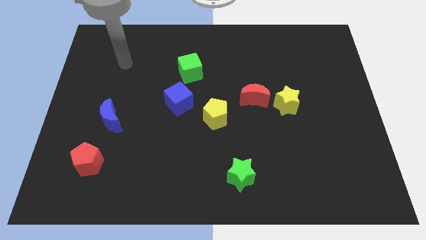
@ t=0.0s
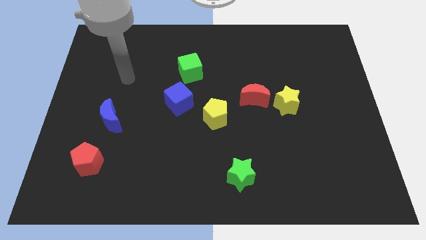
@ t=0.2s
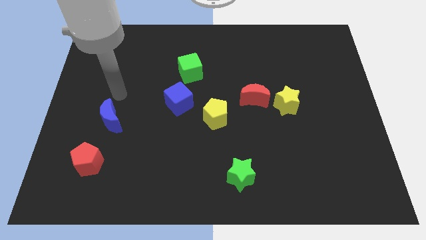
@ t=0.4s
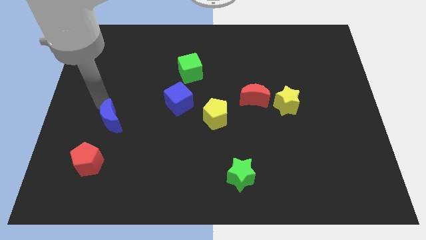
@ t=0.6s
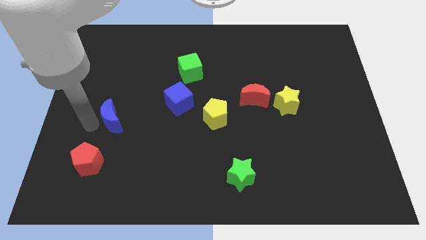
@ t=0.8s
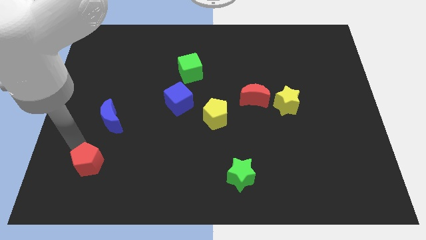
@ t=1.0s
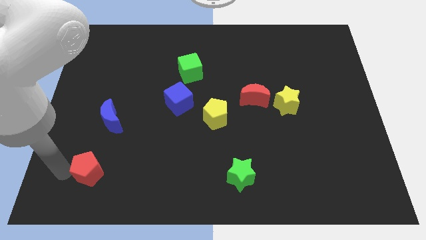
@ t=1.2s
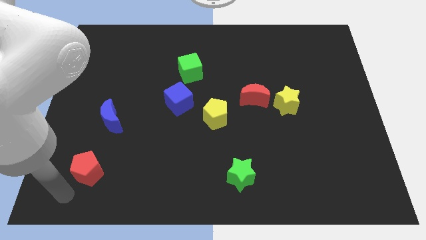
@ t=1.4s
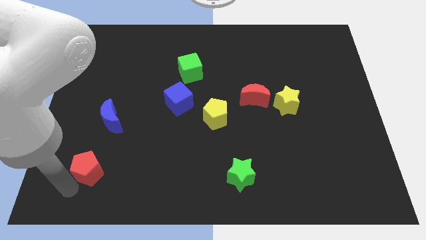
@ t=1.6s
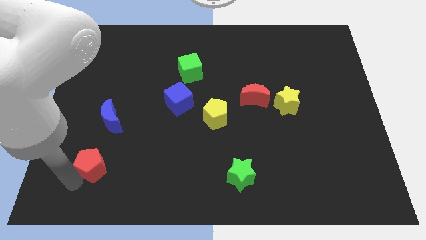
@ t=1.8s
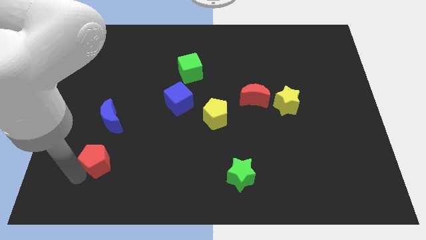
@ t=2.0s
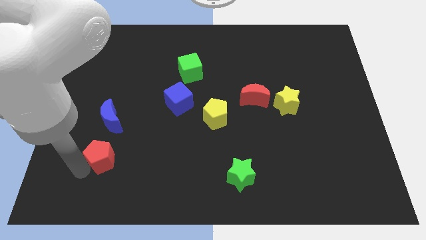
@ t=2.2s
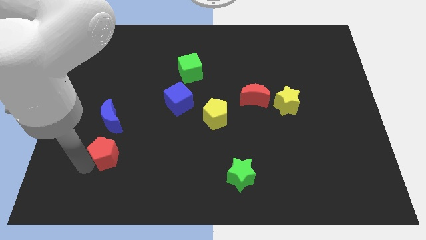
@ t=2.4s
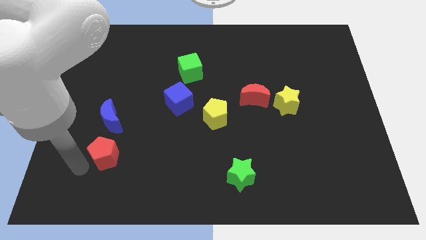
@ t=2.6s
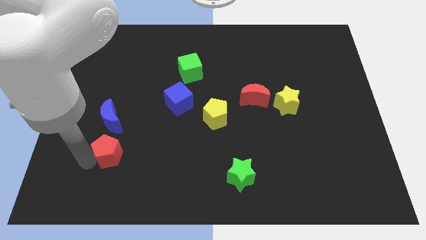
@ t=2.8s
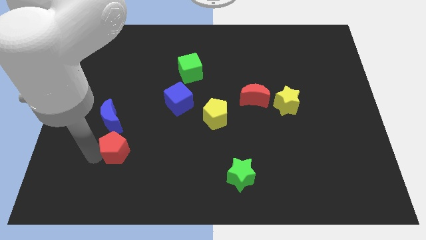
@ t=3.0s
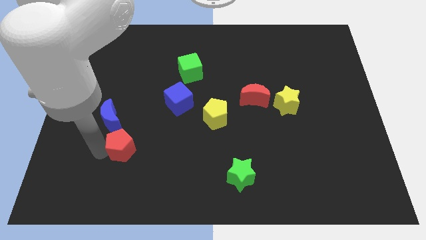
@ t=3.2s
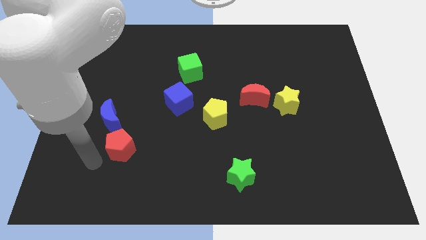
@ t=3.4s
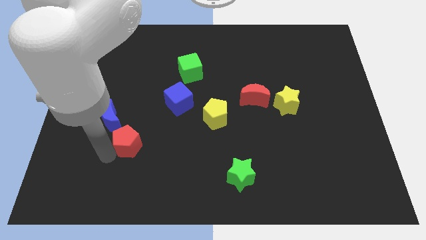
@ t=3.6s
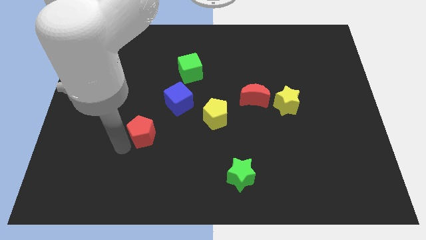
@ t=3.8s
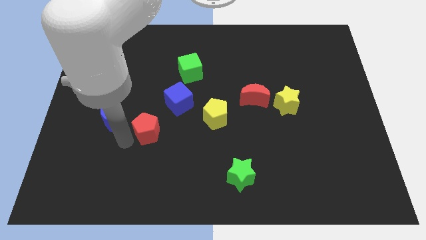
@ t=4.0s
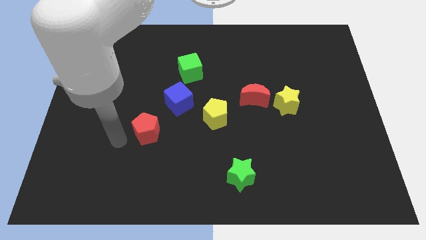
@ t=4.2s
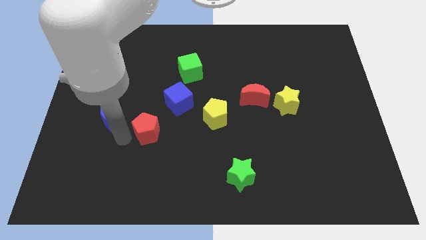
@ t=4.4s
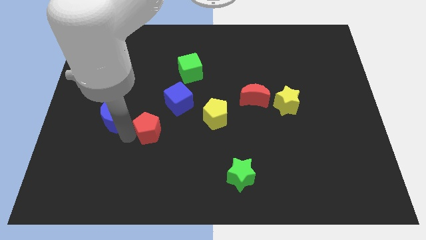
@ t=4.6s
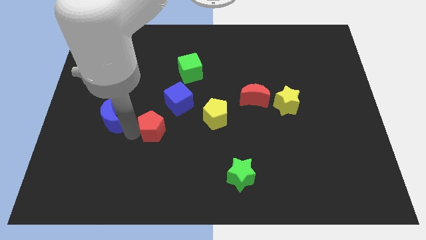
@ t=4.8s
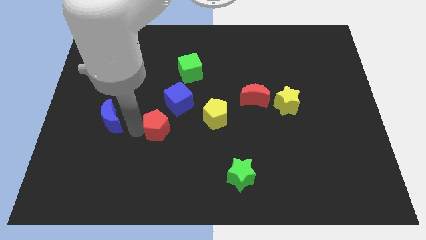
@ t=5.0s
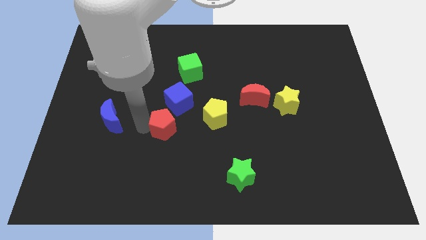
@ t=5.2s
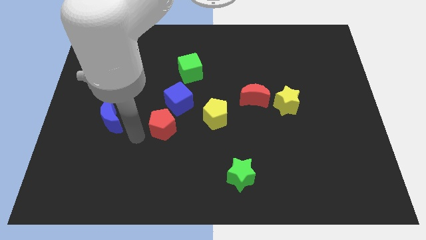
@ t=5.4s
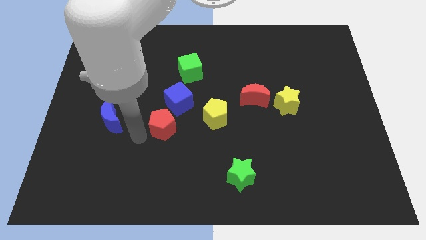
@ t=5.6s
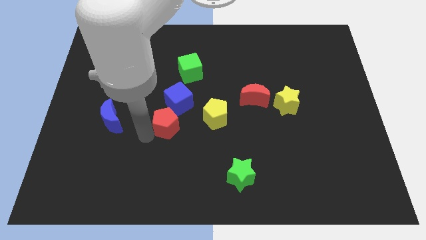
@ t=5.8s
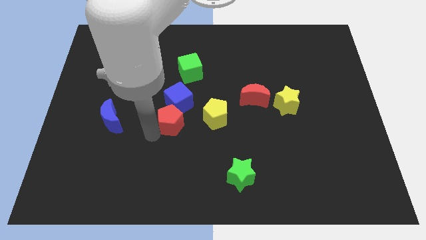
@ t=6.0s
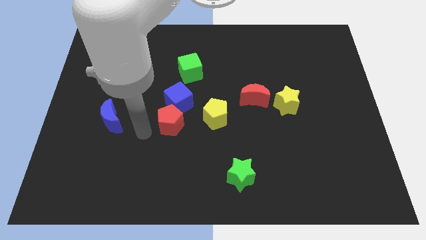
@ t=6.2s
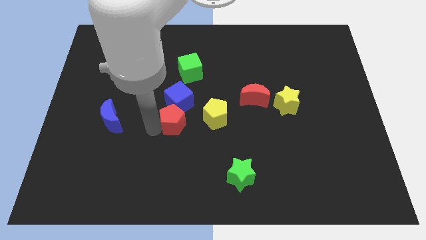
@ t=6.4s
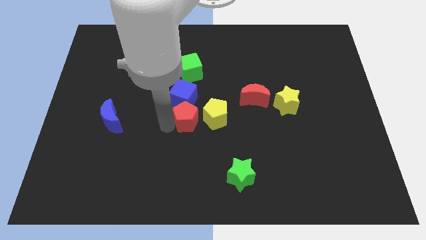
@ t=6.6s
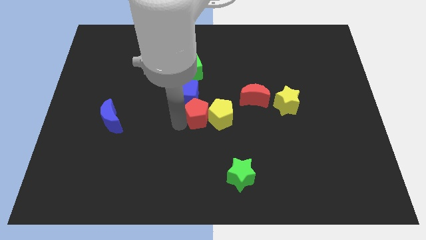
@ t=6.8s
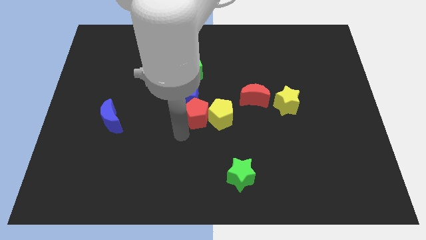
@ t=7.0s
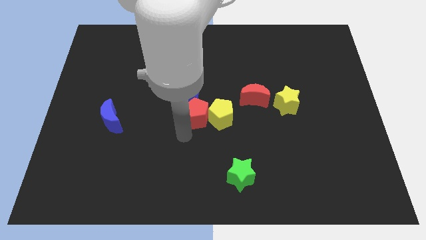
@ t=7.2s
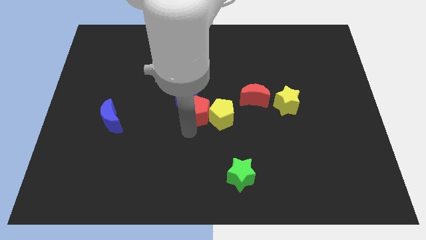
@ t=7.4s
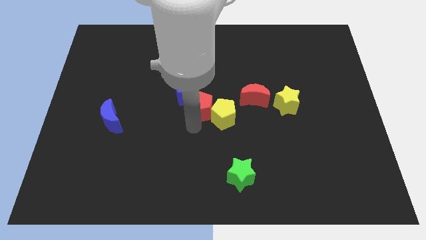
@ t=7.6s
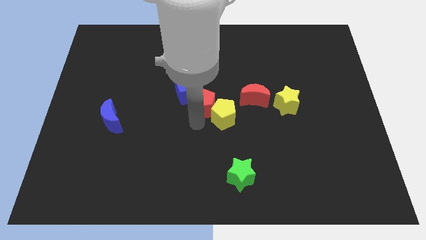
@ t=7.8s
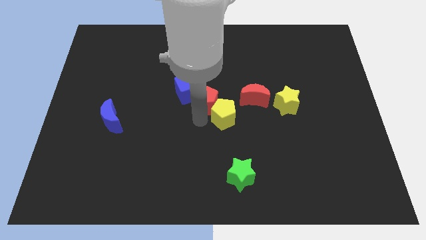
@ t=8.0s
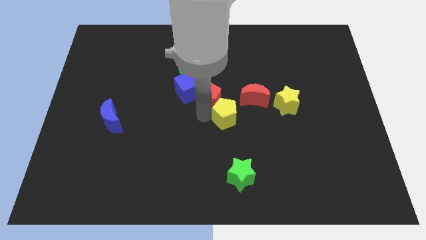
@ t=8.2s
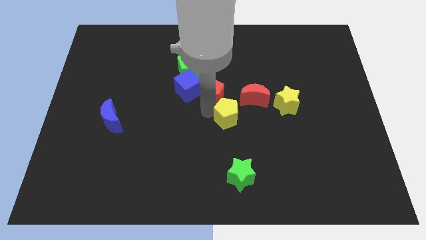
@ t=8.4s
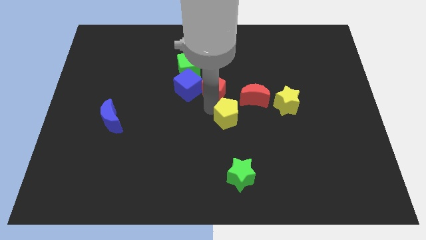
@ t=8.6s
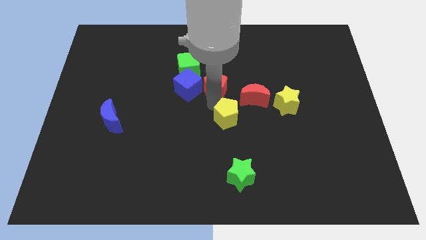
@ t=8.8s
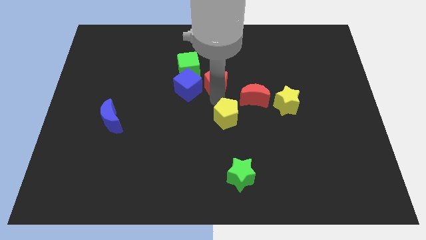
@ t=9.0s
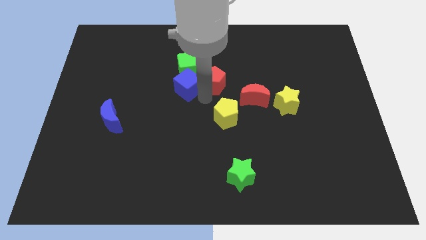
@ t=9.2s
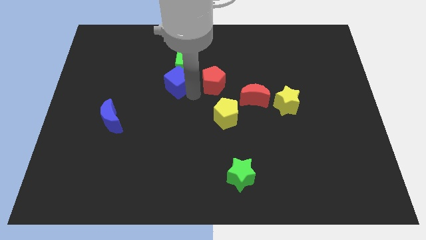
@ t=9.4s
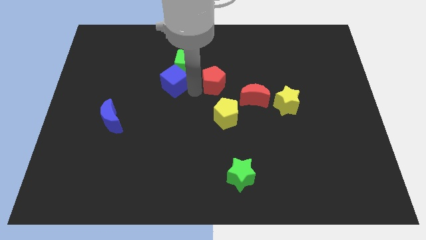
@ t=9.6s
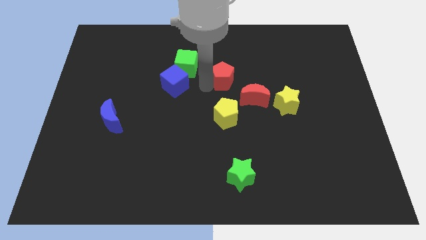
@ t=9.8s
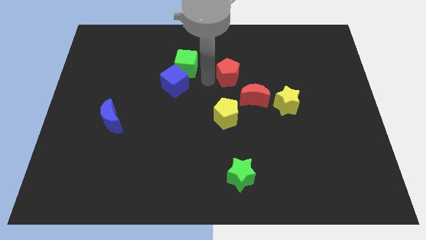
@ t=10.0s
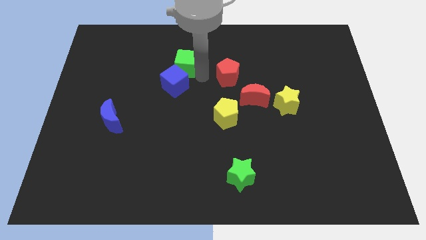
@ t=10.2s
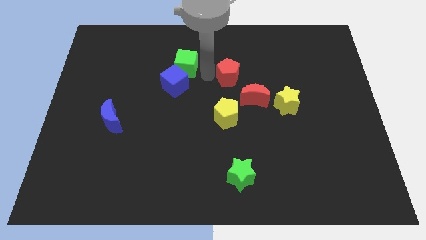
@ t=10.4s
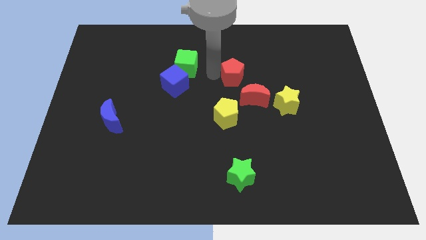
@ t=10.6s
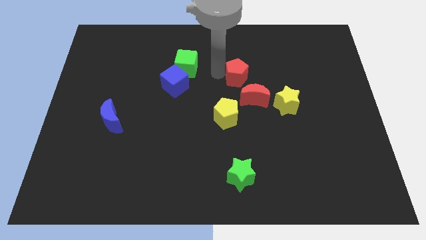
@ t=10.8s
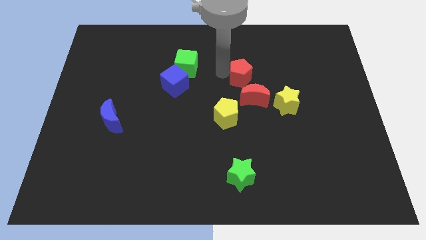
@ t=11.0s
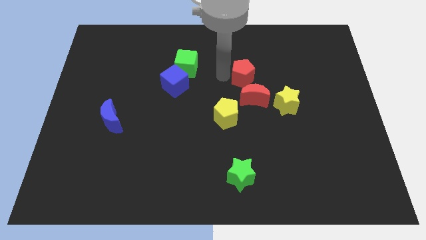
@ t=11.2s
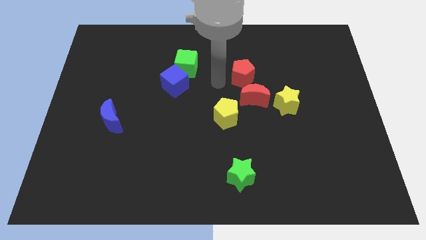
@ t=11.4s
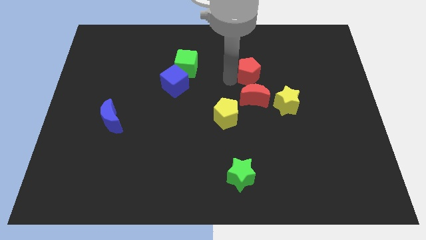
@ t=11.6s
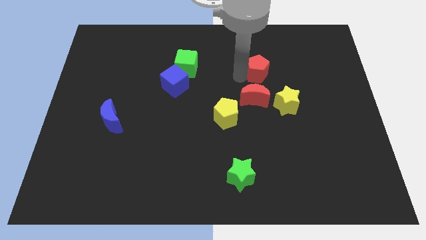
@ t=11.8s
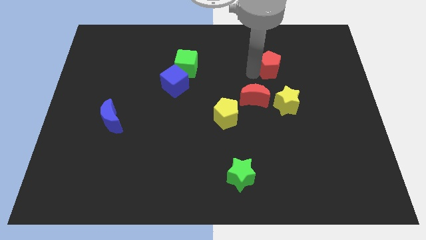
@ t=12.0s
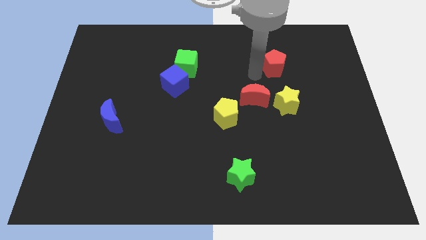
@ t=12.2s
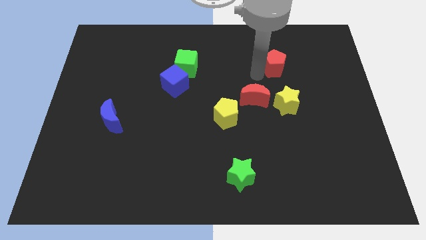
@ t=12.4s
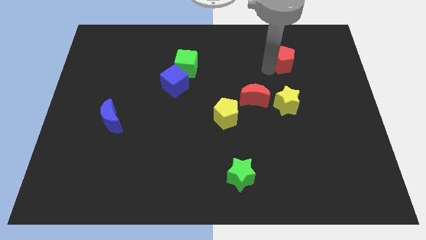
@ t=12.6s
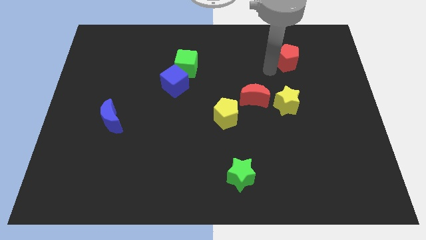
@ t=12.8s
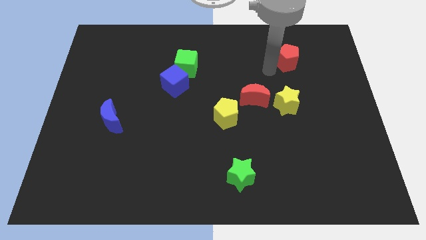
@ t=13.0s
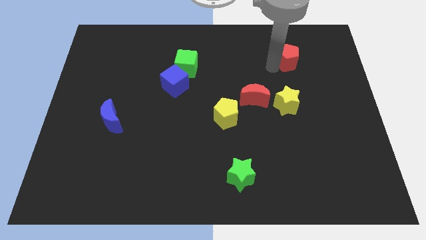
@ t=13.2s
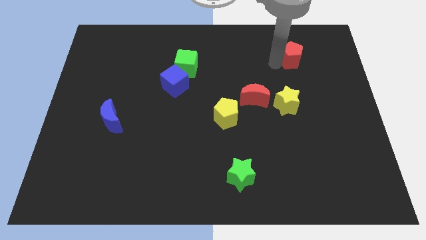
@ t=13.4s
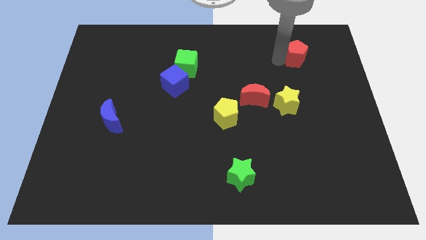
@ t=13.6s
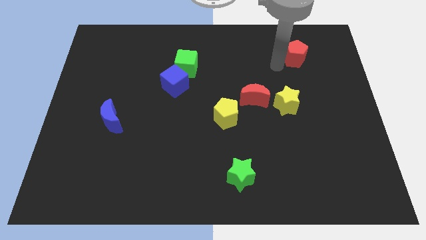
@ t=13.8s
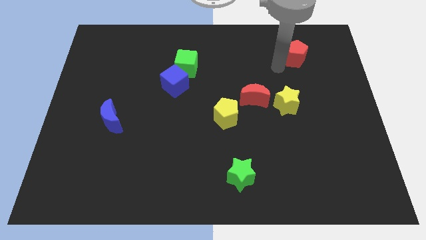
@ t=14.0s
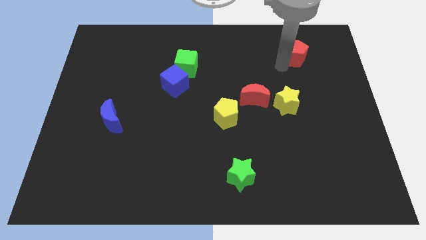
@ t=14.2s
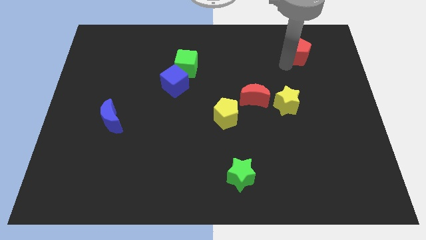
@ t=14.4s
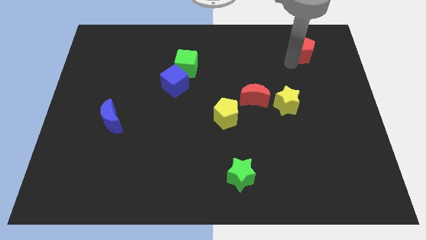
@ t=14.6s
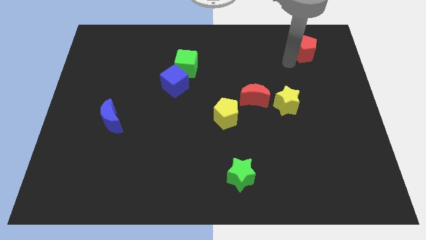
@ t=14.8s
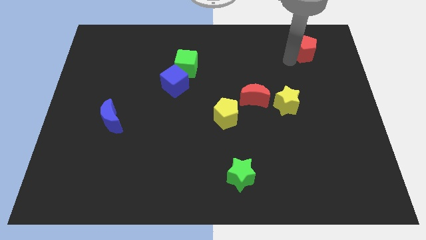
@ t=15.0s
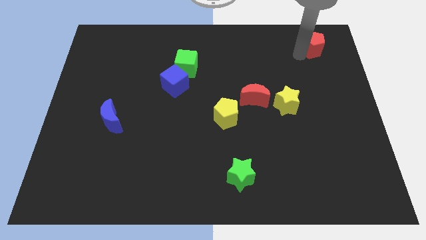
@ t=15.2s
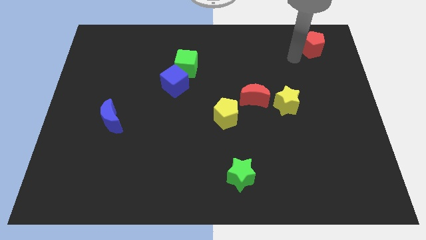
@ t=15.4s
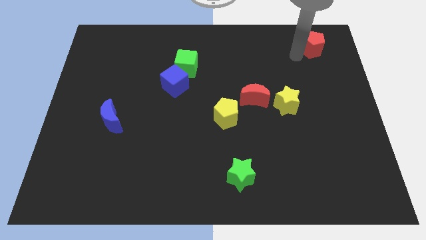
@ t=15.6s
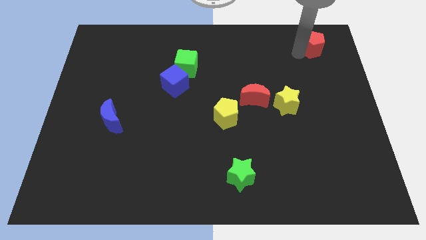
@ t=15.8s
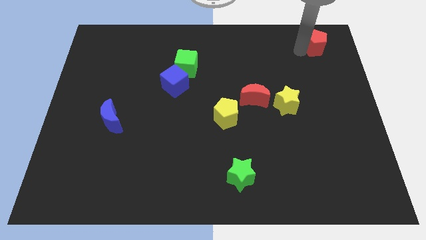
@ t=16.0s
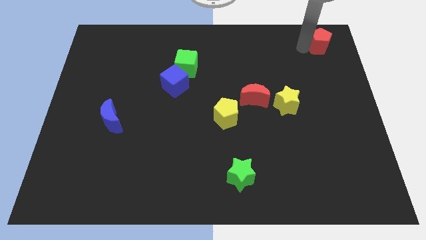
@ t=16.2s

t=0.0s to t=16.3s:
slide the red pentagon to the upper right corner
